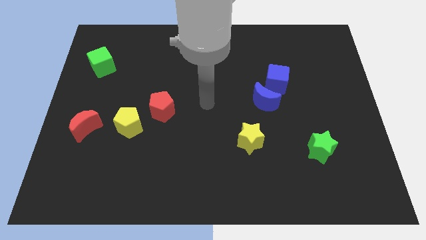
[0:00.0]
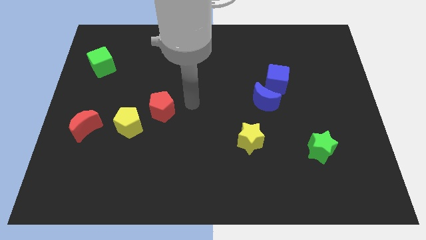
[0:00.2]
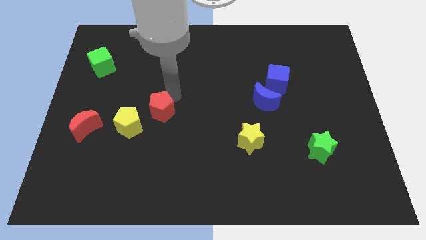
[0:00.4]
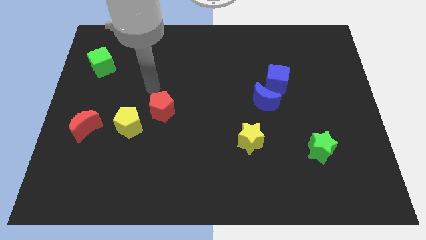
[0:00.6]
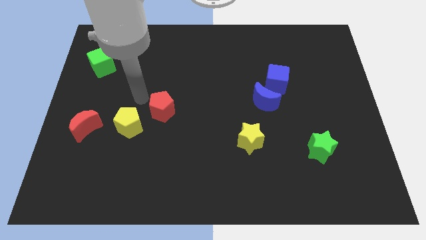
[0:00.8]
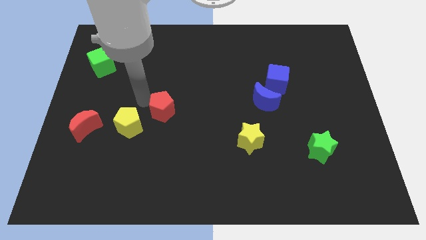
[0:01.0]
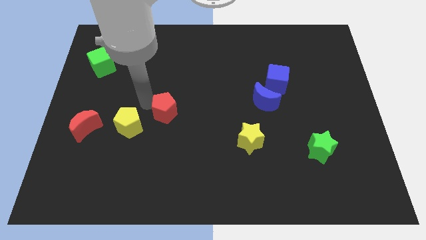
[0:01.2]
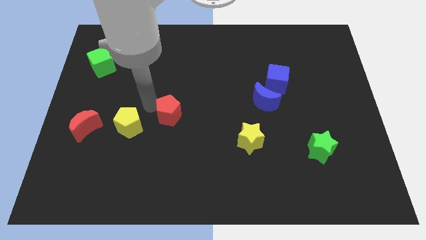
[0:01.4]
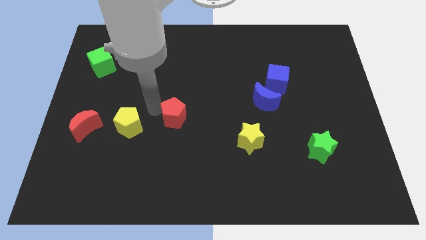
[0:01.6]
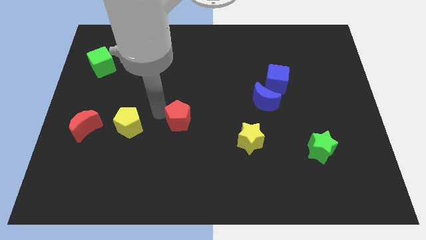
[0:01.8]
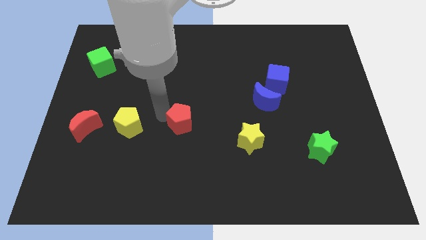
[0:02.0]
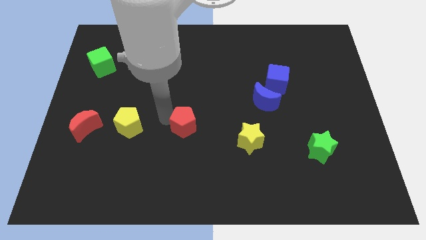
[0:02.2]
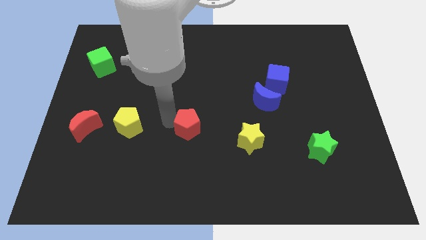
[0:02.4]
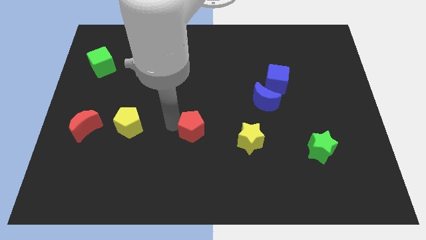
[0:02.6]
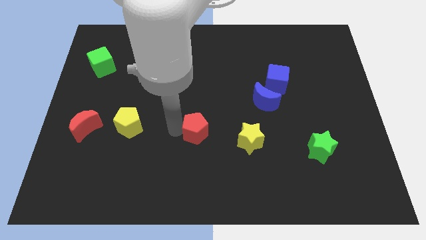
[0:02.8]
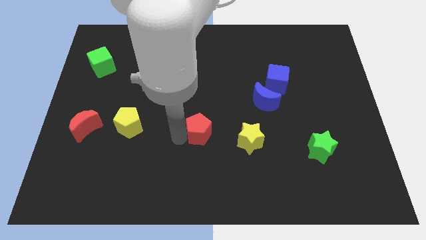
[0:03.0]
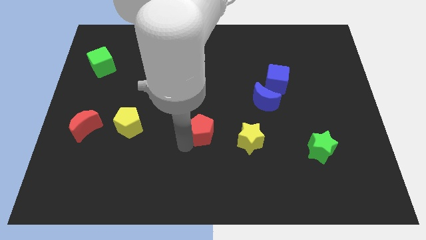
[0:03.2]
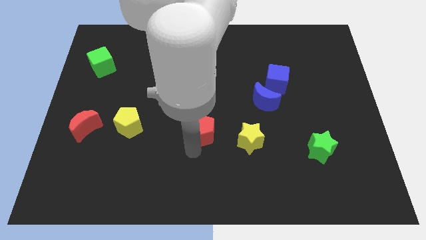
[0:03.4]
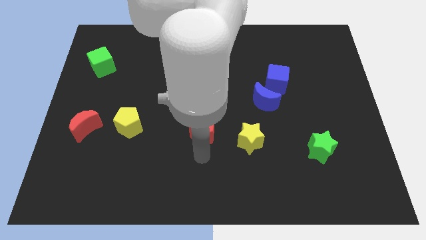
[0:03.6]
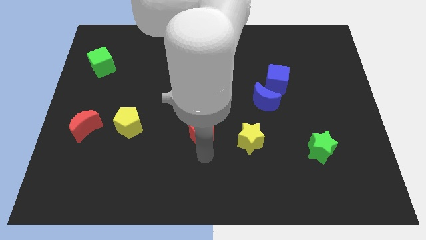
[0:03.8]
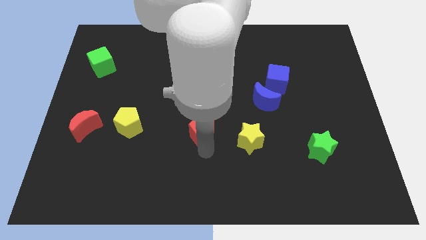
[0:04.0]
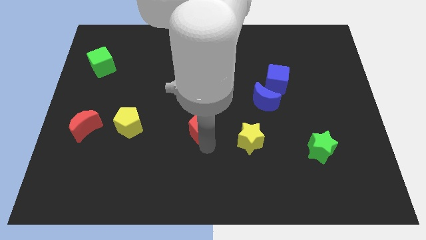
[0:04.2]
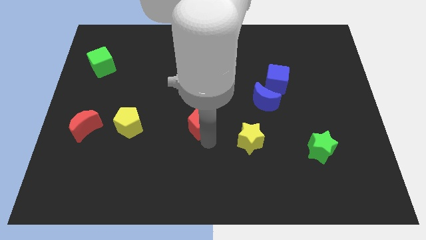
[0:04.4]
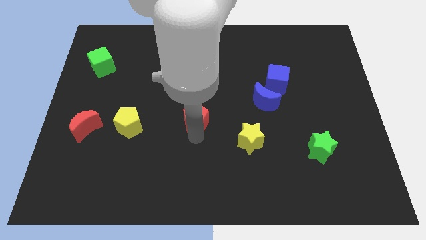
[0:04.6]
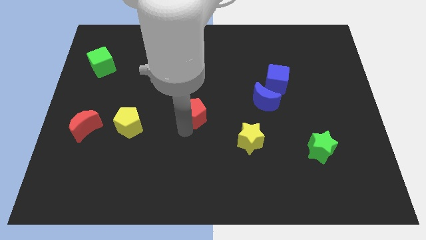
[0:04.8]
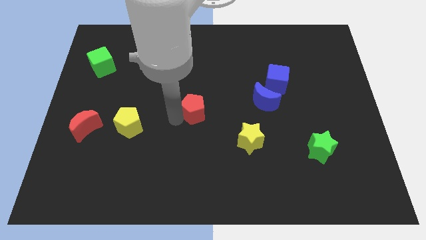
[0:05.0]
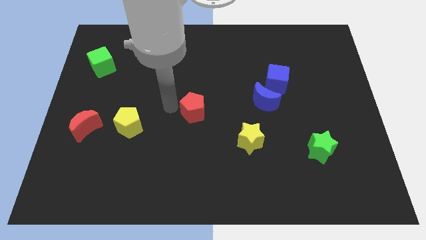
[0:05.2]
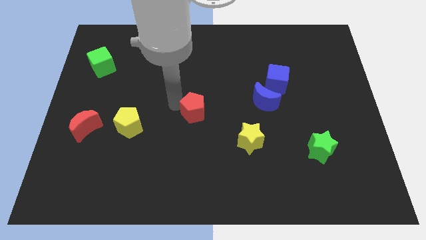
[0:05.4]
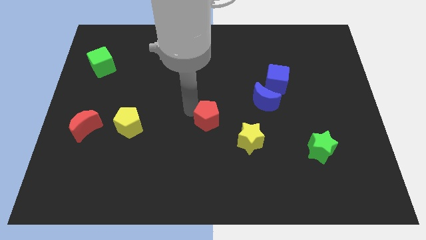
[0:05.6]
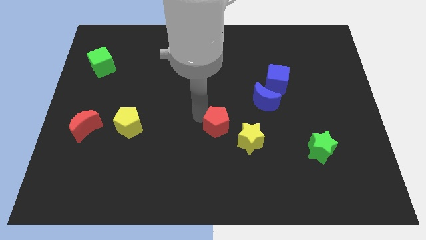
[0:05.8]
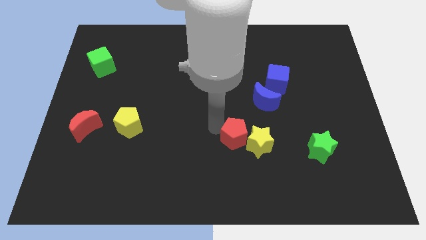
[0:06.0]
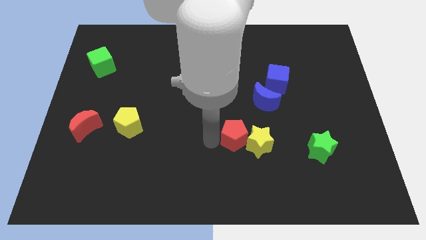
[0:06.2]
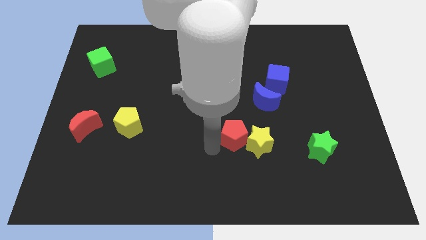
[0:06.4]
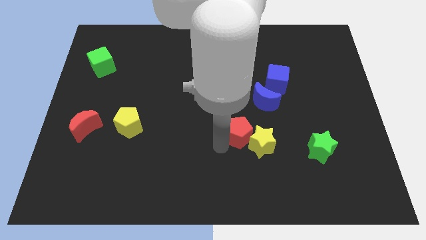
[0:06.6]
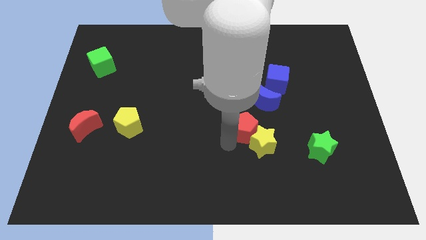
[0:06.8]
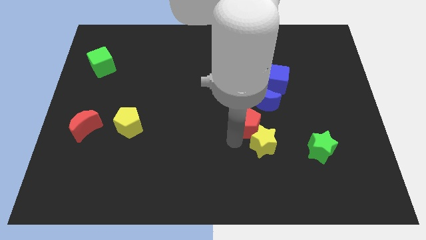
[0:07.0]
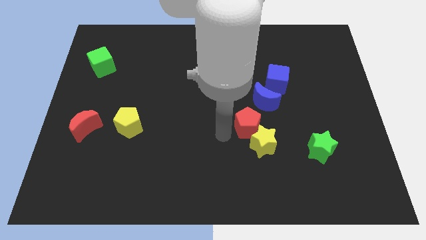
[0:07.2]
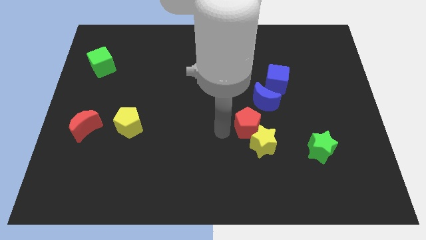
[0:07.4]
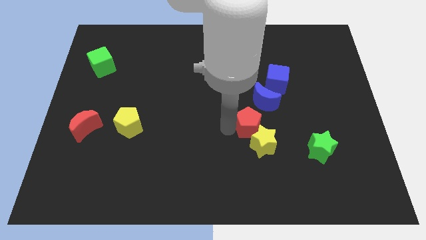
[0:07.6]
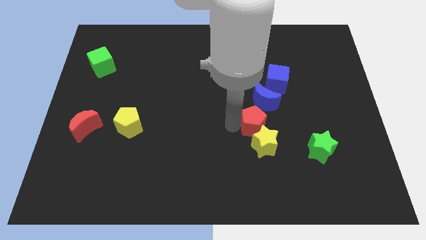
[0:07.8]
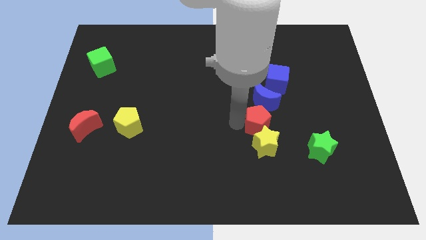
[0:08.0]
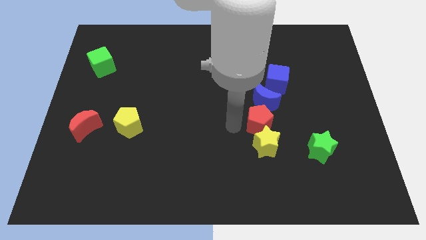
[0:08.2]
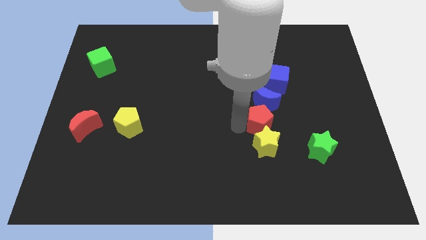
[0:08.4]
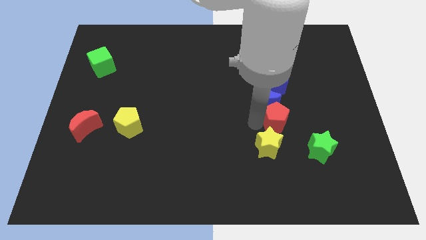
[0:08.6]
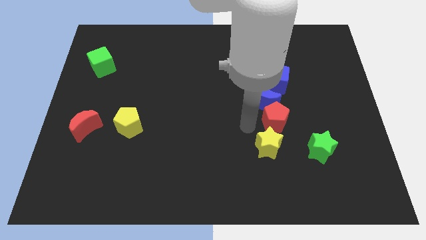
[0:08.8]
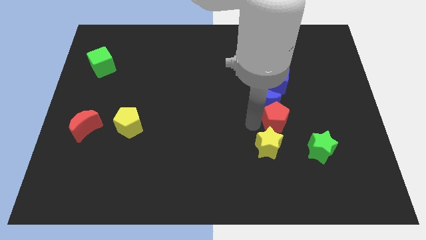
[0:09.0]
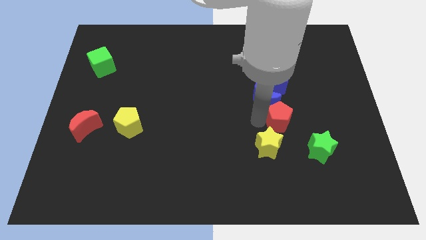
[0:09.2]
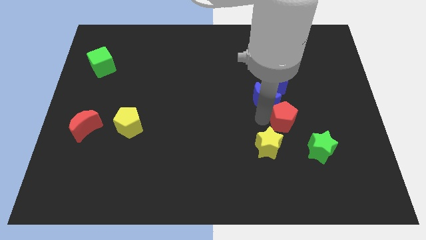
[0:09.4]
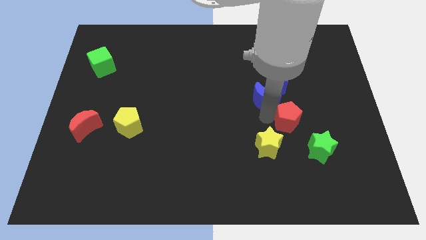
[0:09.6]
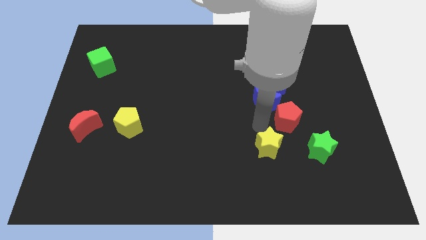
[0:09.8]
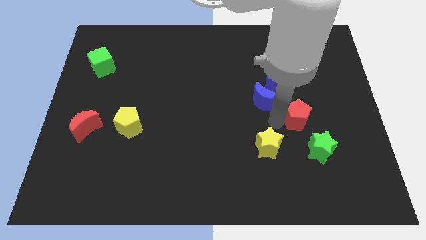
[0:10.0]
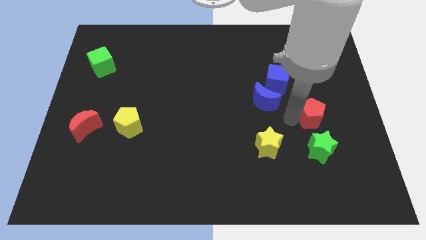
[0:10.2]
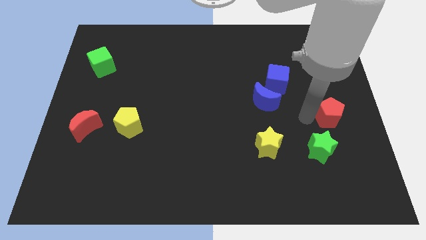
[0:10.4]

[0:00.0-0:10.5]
put the red pentagon to the center right
